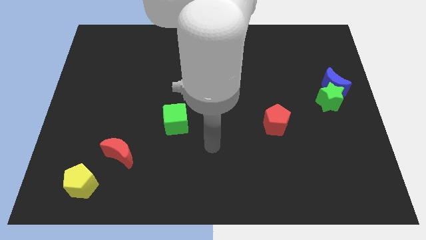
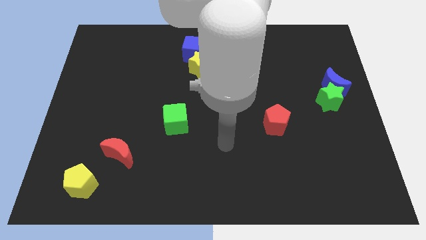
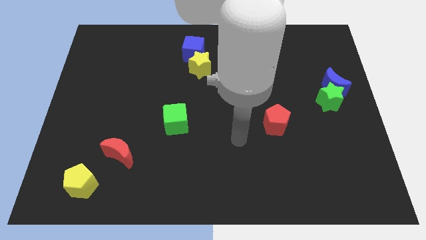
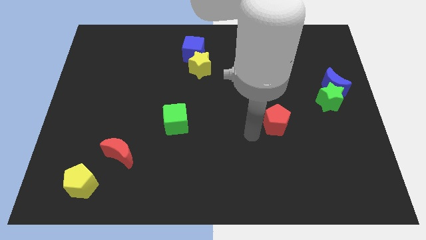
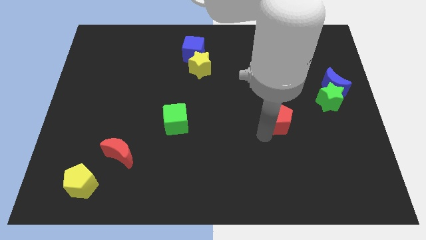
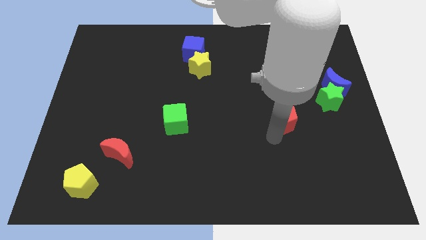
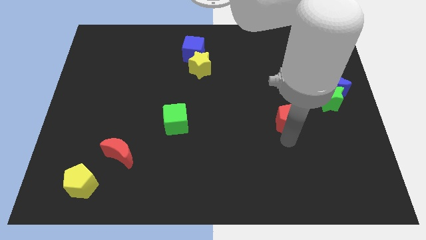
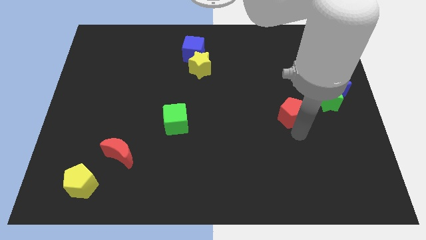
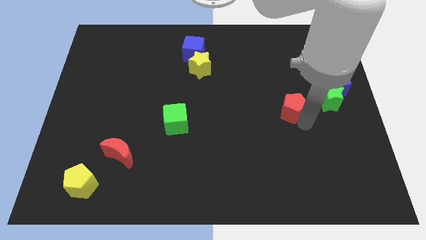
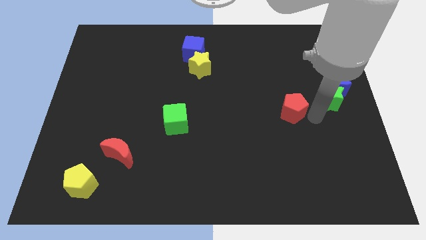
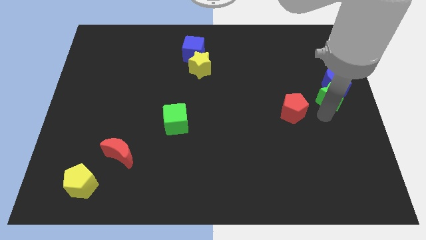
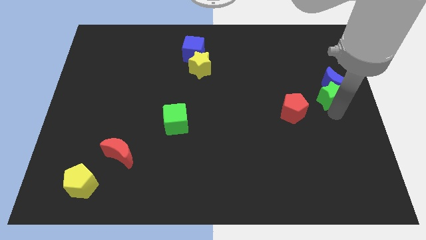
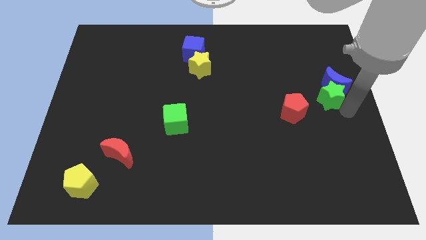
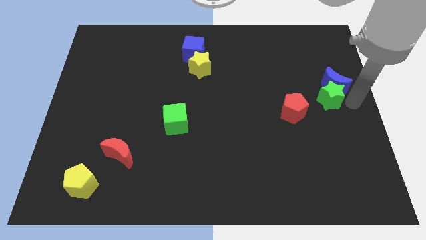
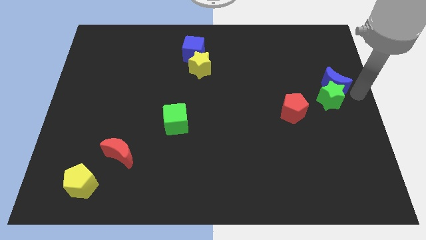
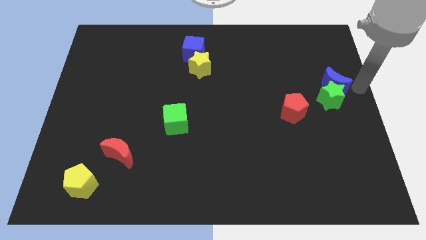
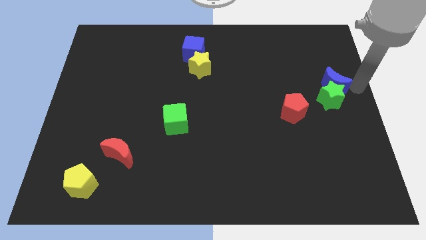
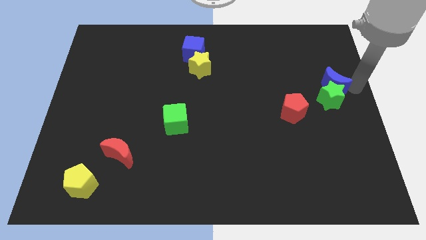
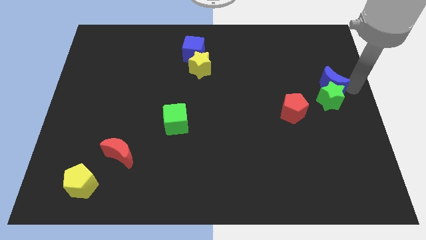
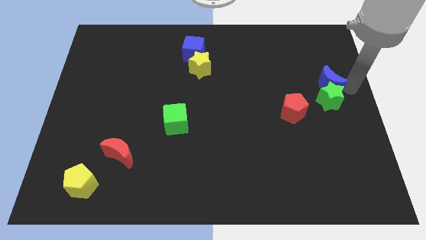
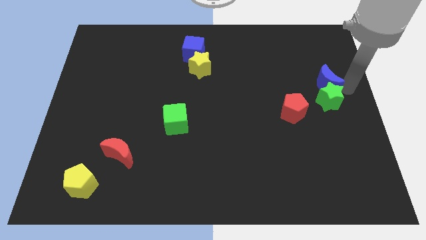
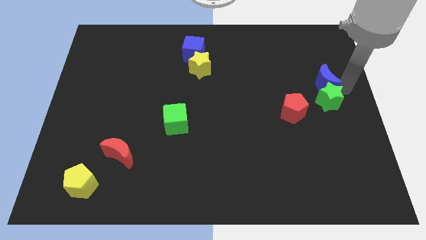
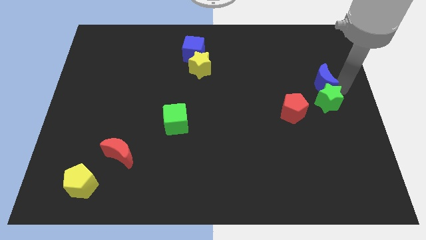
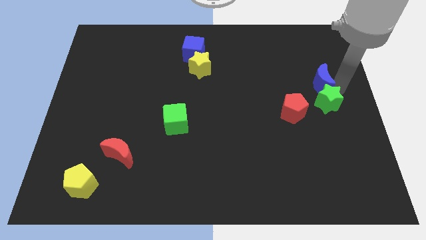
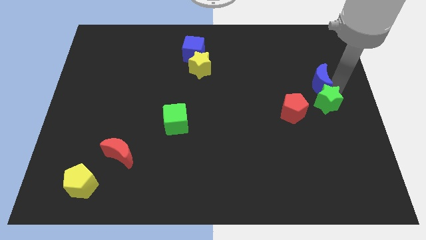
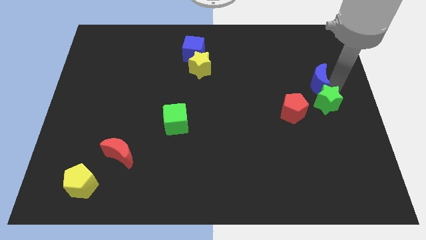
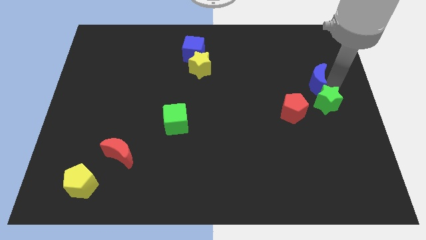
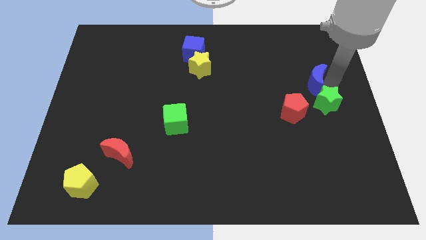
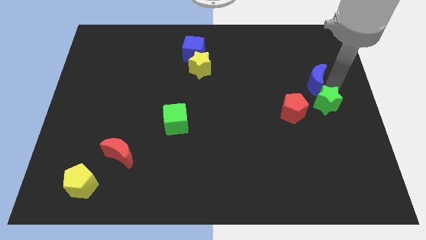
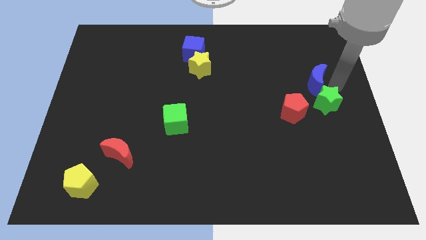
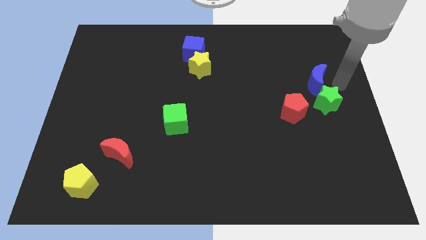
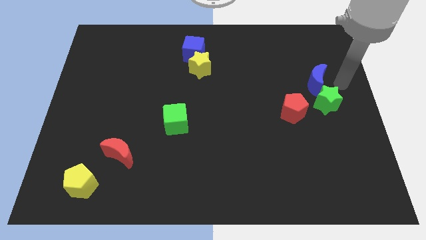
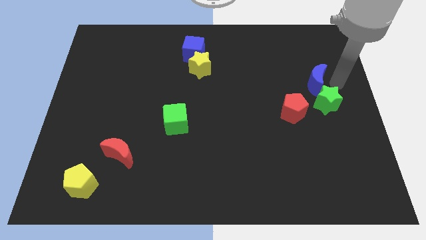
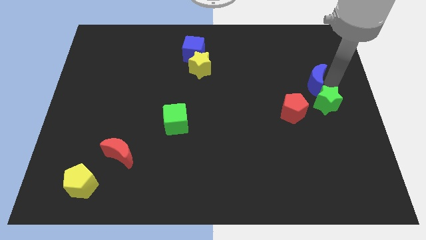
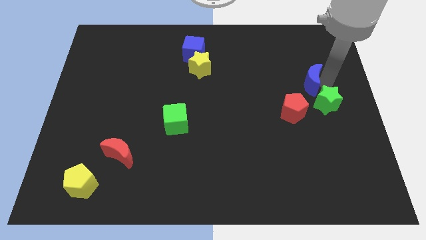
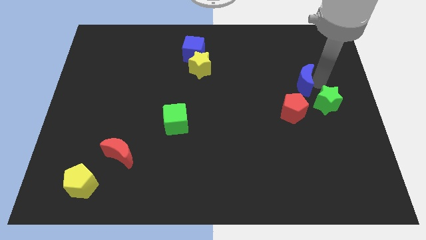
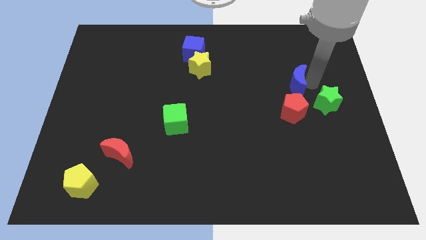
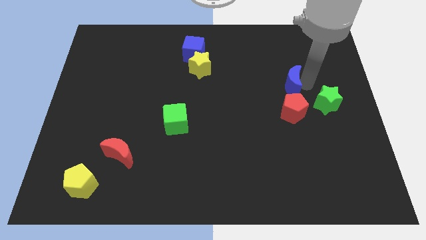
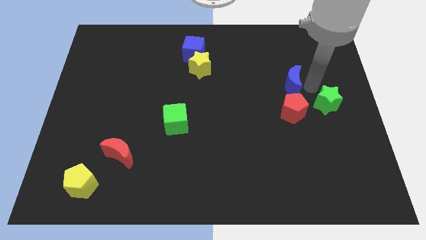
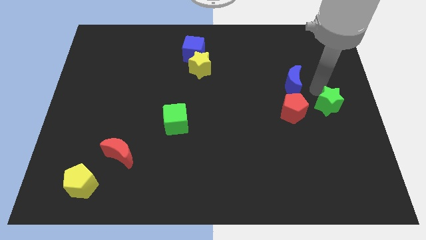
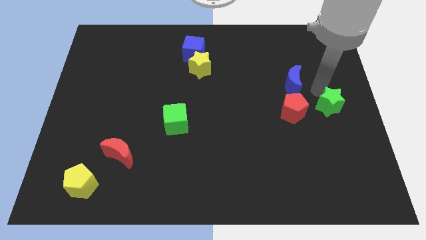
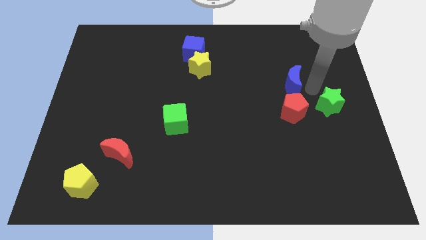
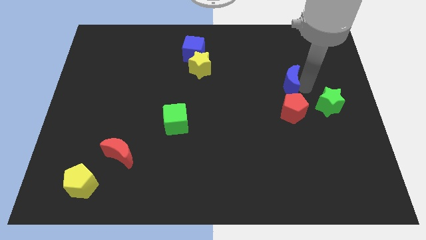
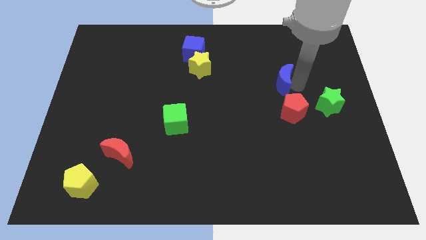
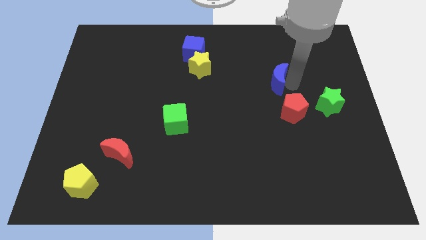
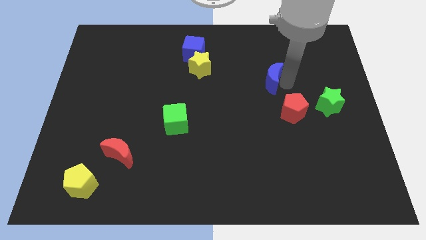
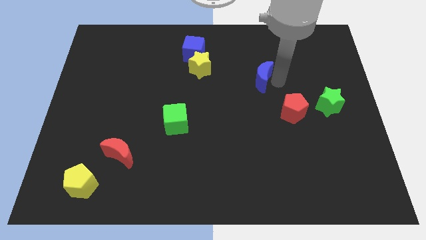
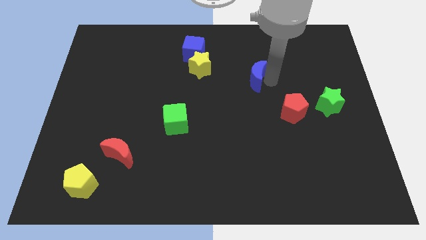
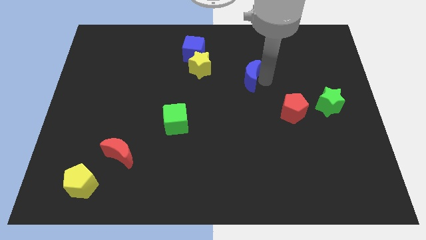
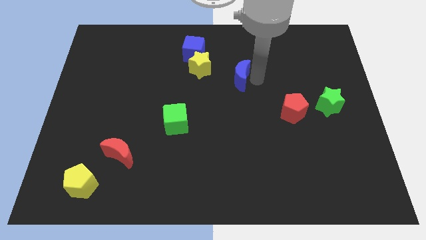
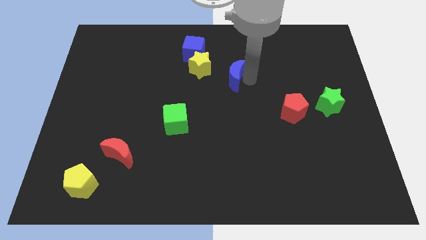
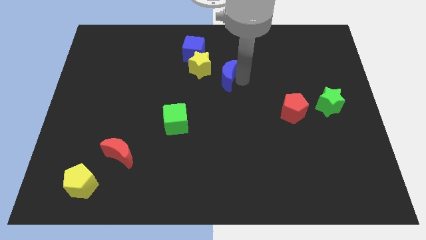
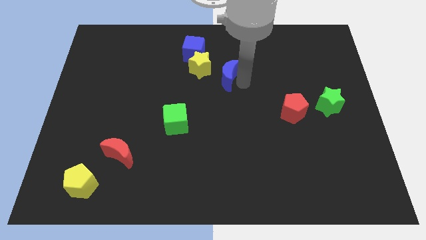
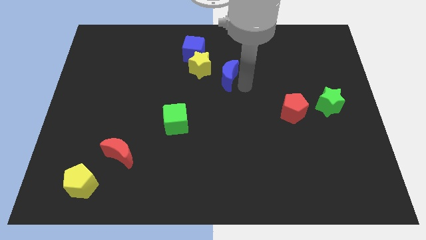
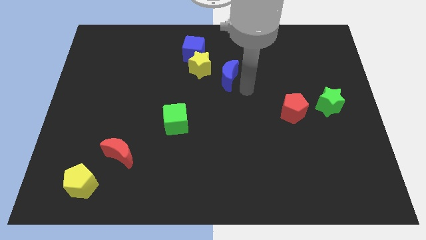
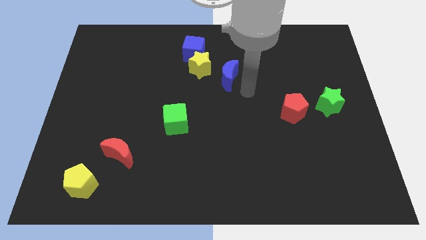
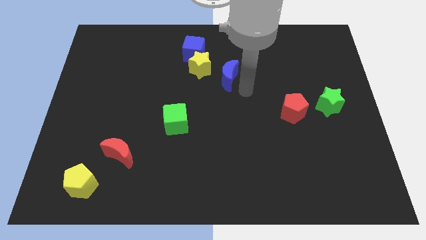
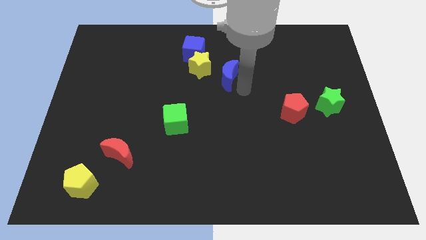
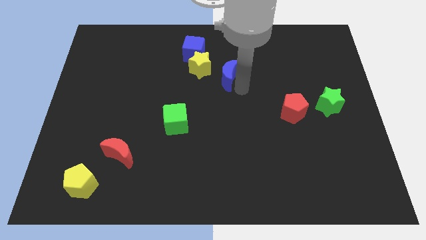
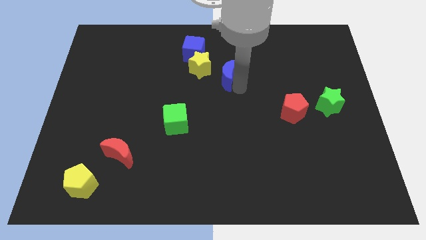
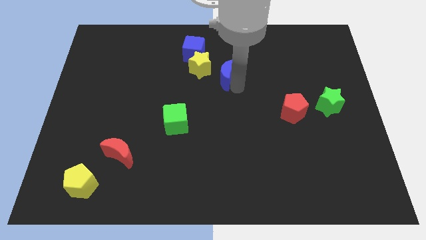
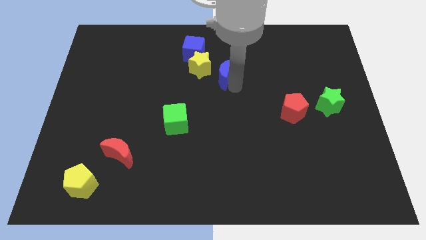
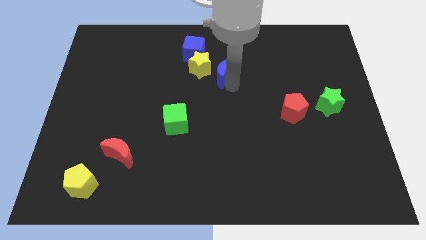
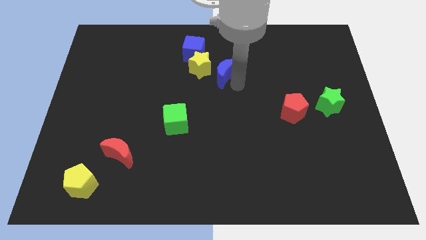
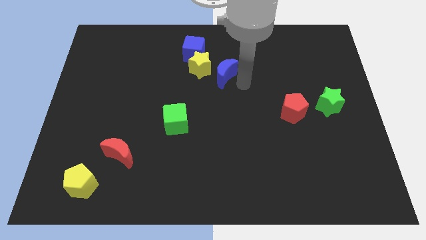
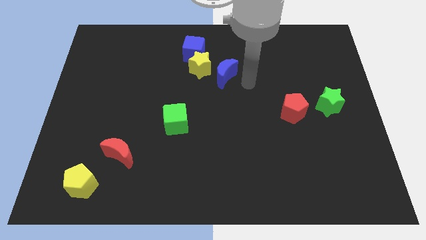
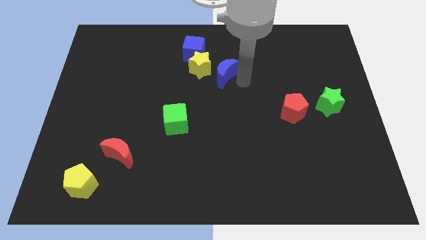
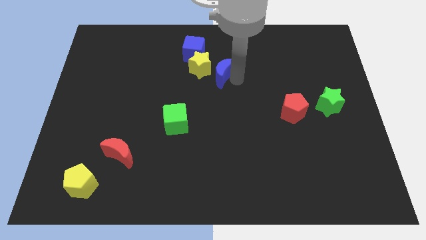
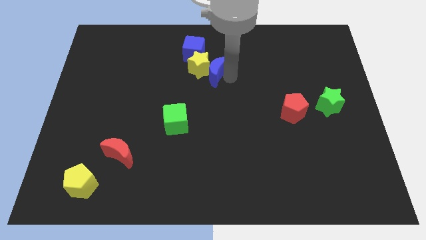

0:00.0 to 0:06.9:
put the blue moon close to the yellow star

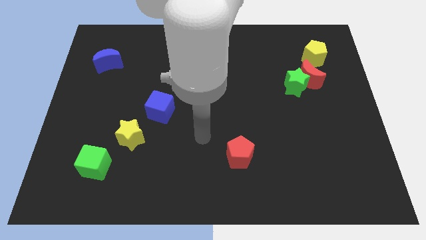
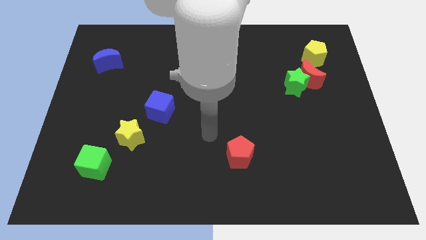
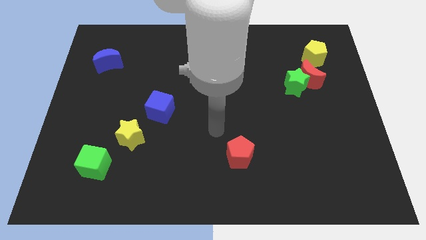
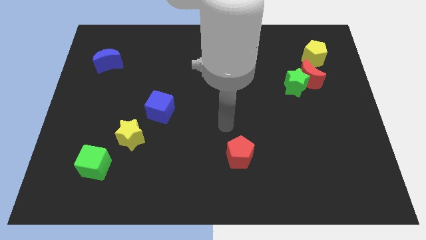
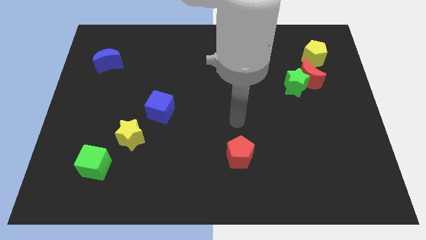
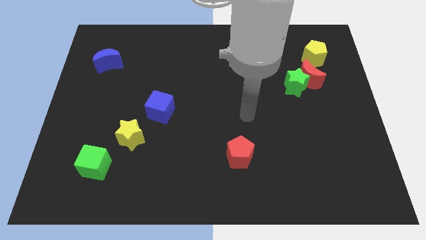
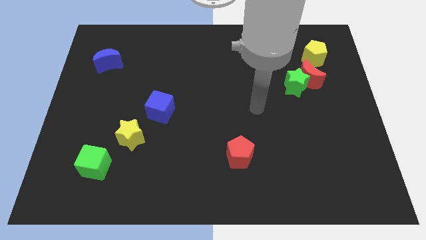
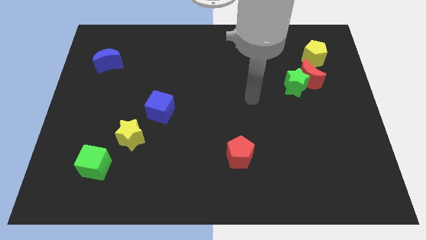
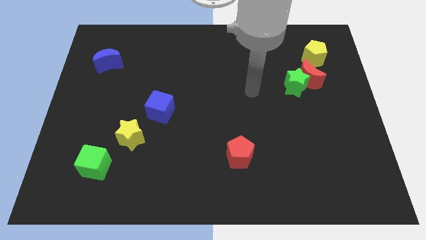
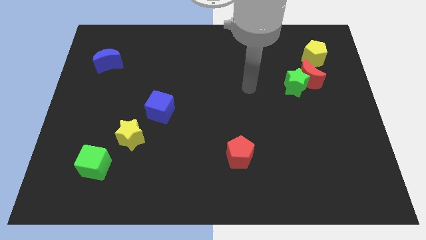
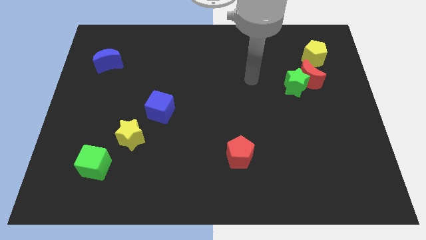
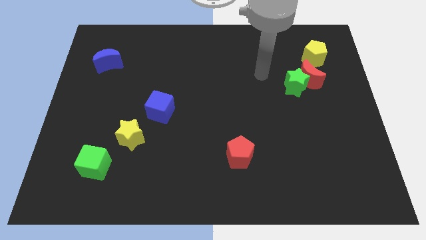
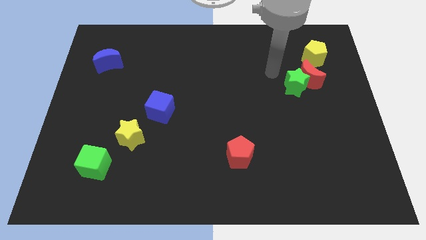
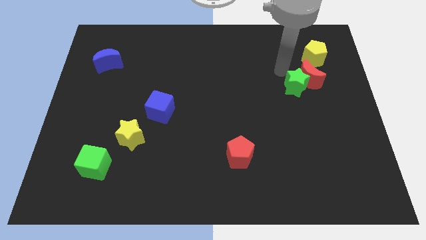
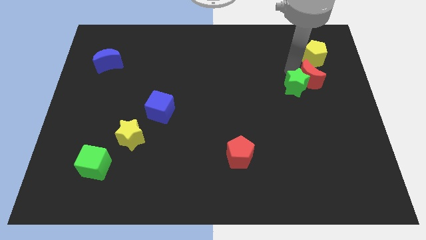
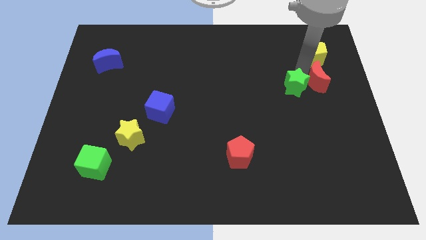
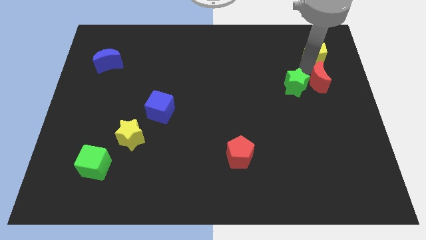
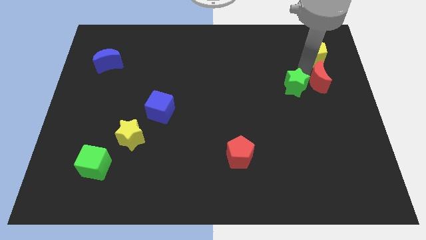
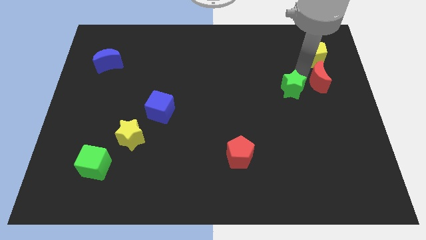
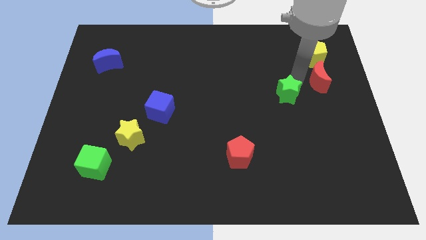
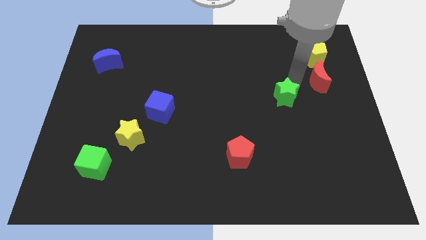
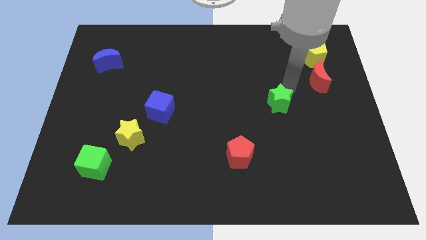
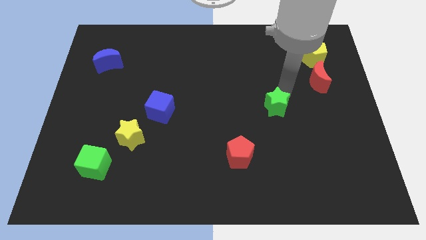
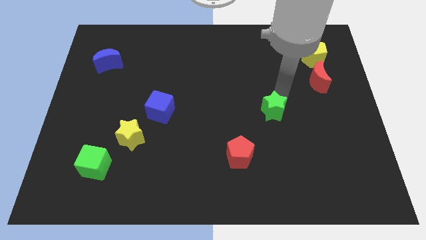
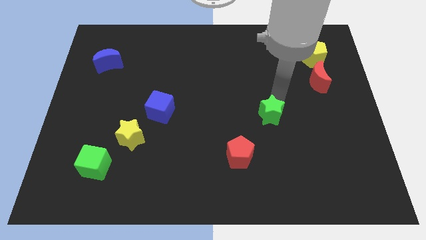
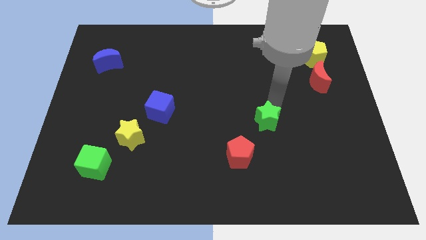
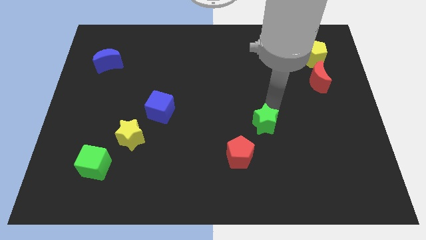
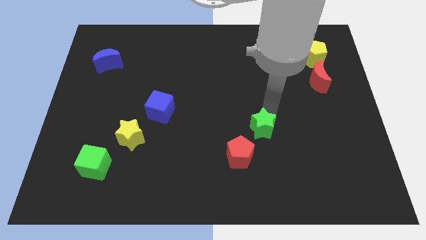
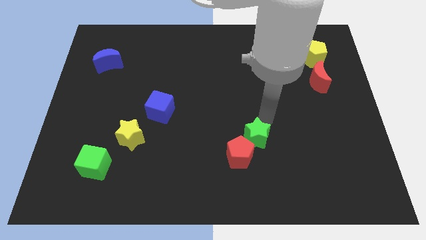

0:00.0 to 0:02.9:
push the green star to the red pentagon
